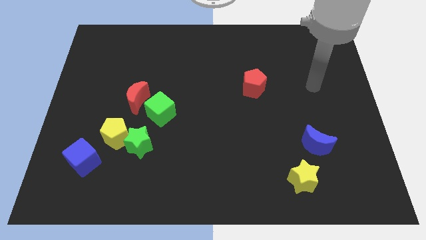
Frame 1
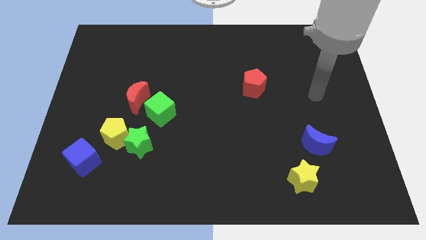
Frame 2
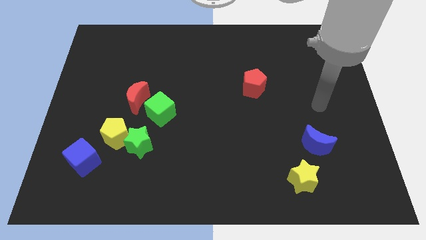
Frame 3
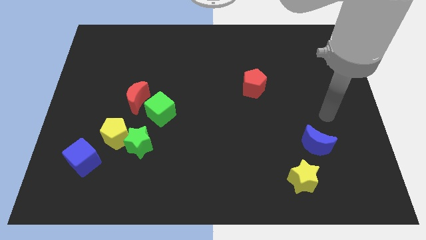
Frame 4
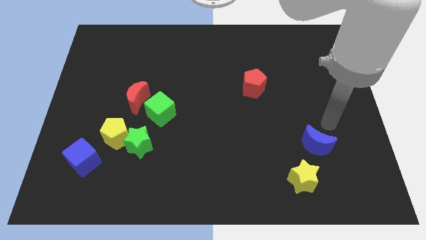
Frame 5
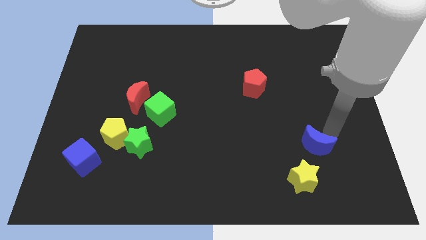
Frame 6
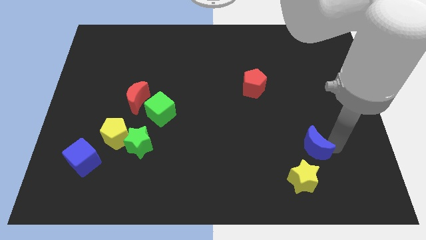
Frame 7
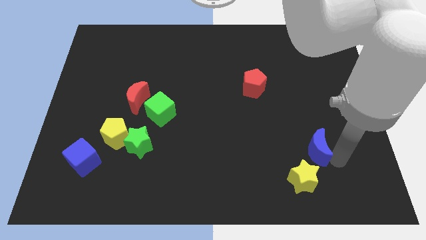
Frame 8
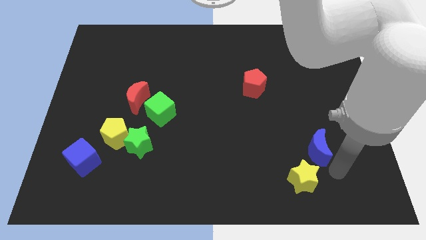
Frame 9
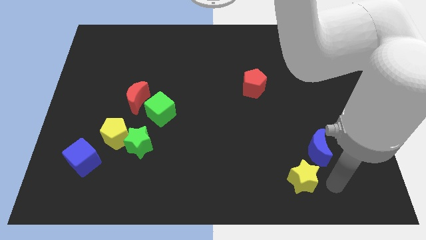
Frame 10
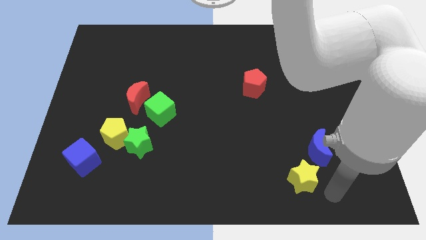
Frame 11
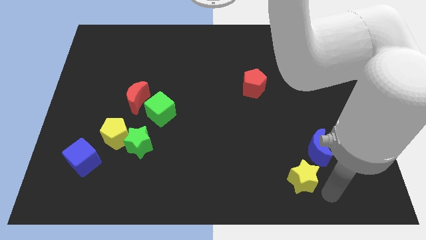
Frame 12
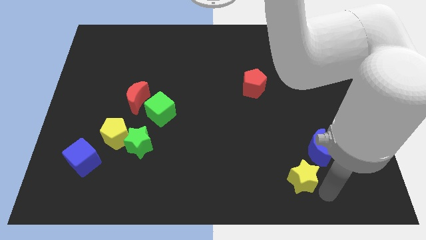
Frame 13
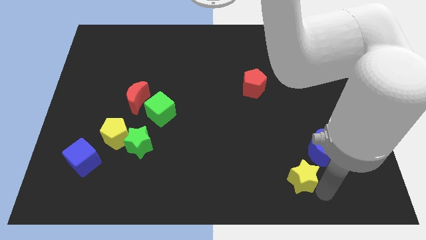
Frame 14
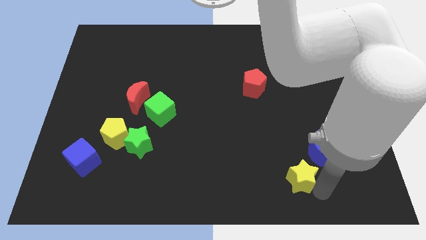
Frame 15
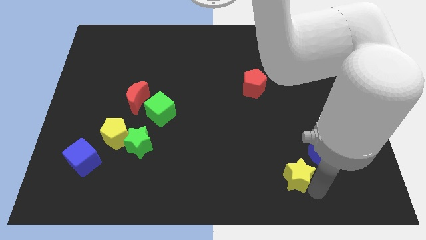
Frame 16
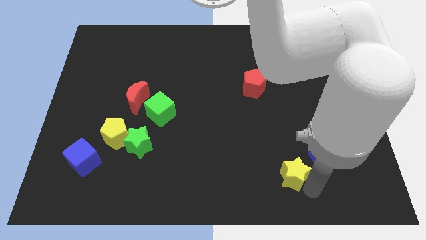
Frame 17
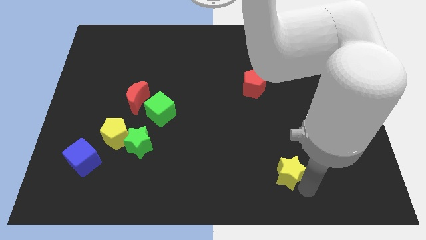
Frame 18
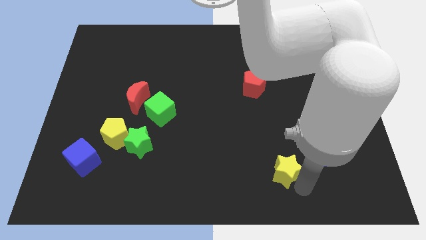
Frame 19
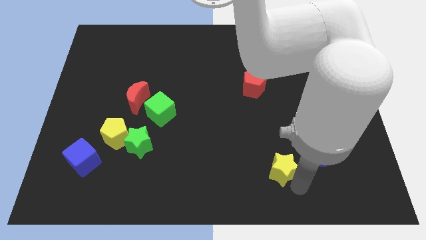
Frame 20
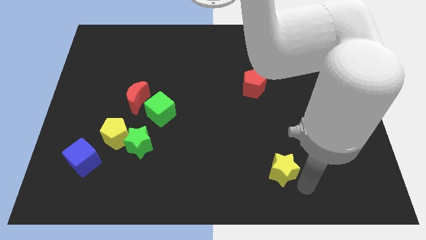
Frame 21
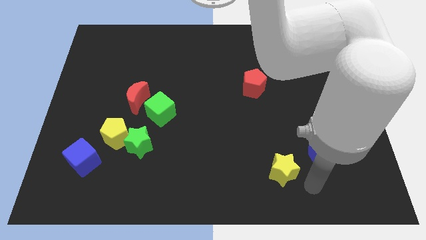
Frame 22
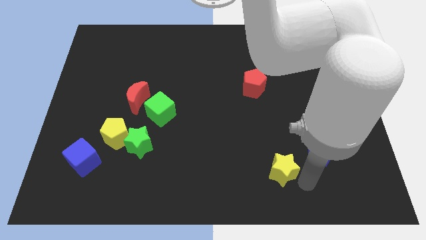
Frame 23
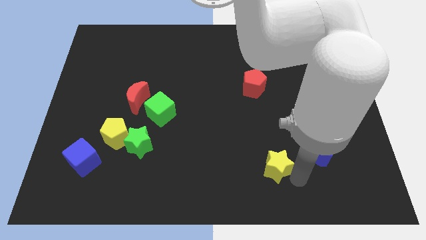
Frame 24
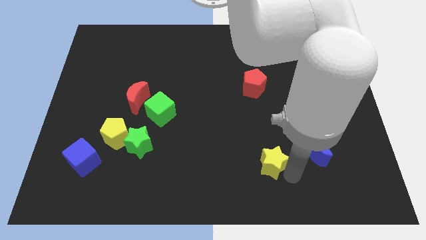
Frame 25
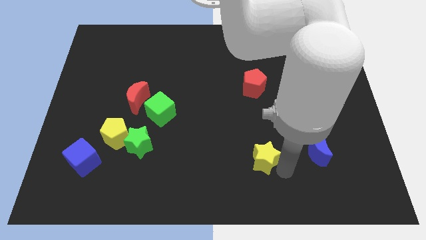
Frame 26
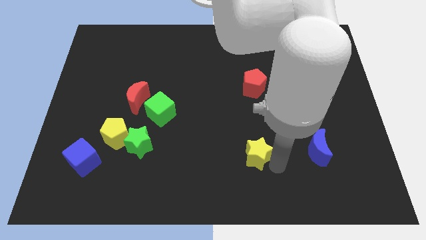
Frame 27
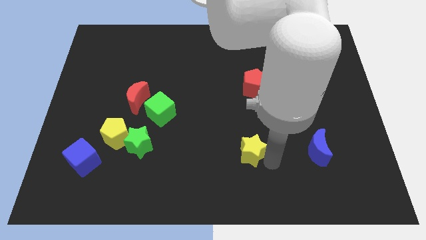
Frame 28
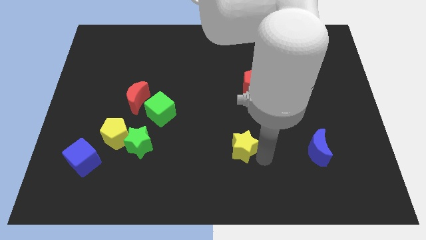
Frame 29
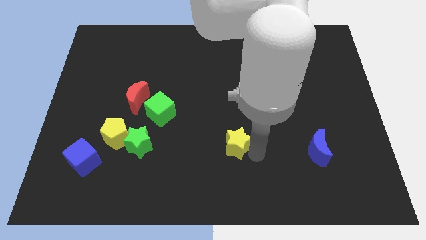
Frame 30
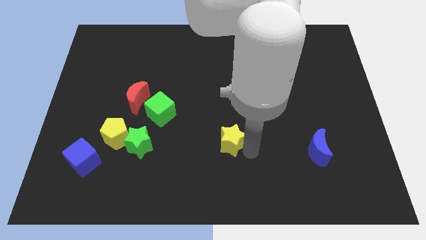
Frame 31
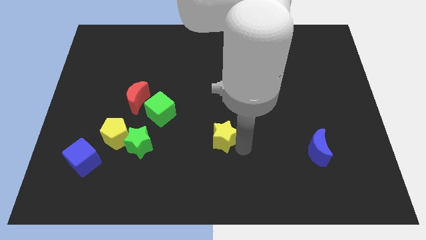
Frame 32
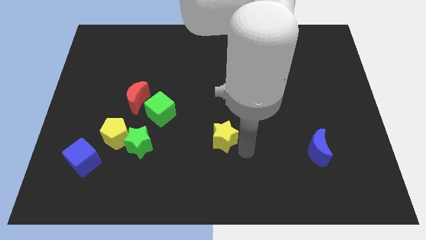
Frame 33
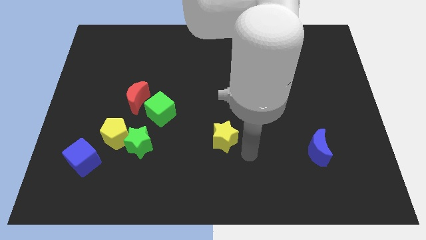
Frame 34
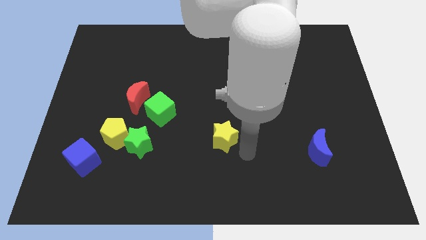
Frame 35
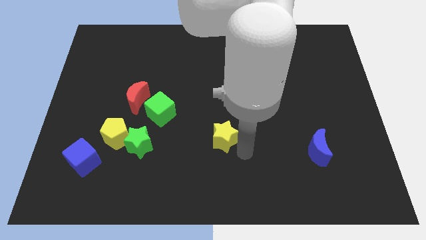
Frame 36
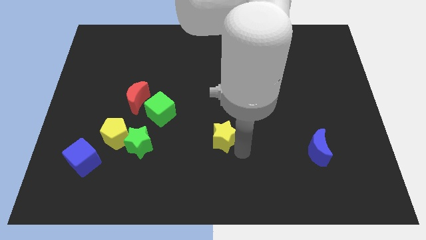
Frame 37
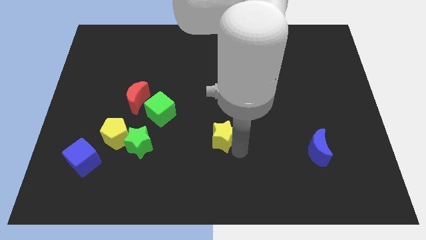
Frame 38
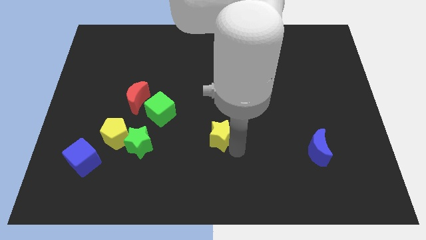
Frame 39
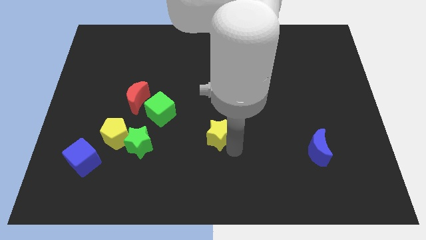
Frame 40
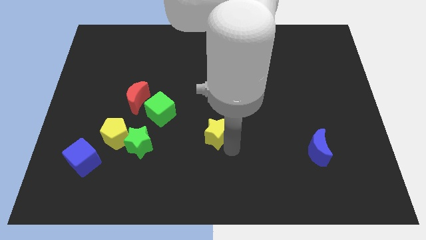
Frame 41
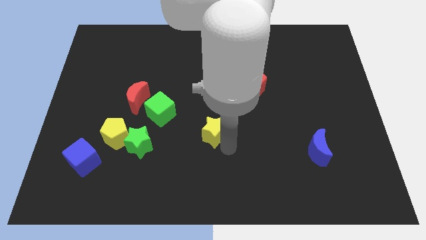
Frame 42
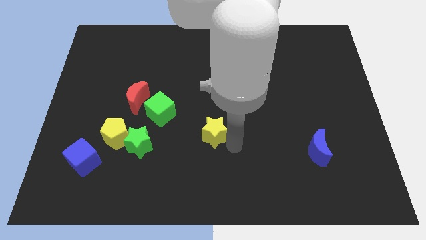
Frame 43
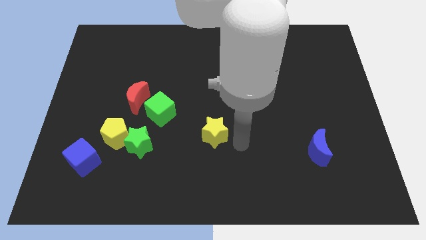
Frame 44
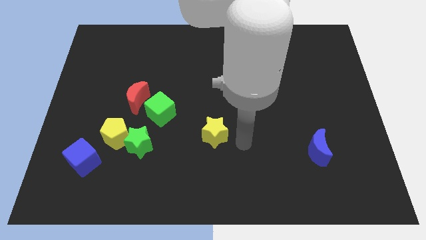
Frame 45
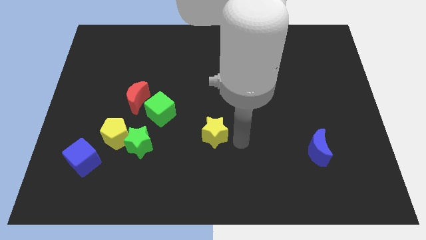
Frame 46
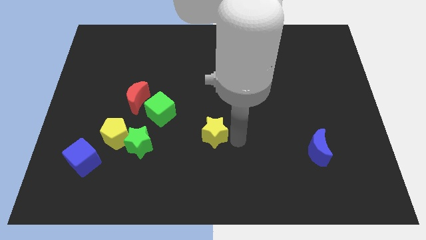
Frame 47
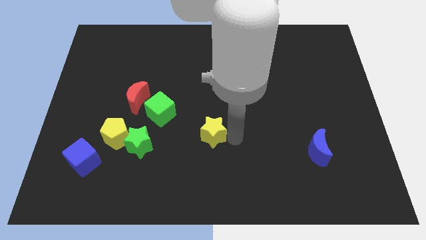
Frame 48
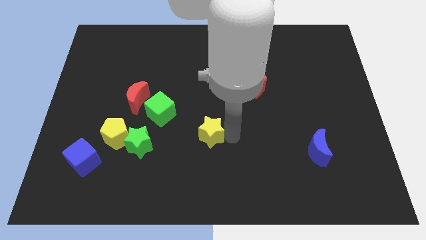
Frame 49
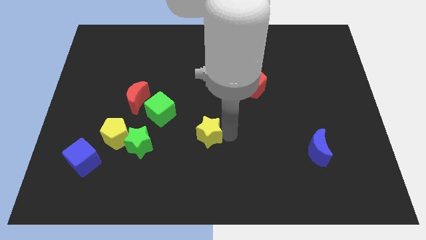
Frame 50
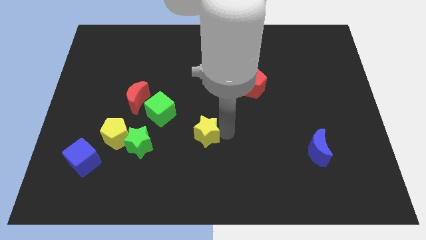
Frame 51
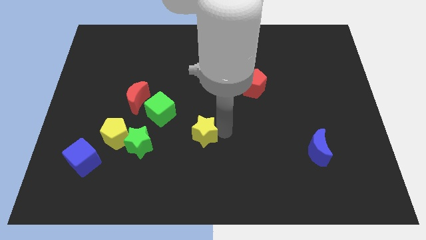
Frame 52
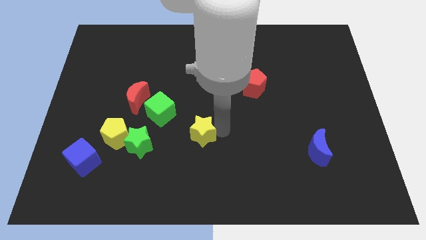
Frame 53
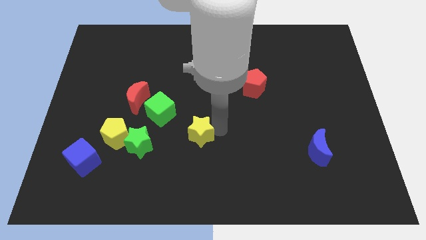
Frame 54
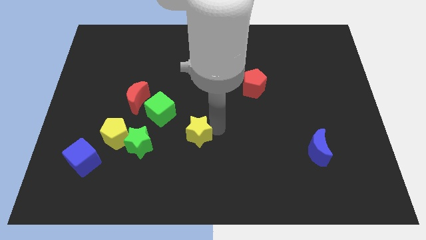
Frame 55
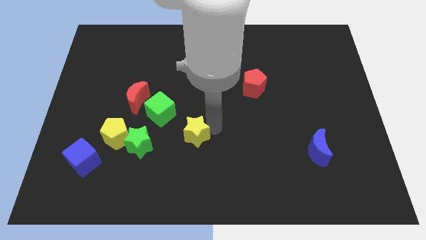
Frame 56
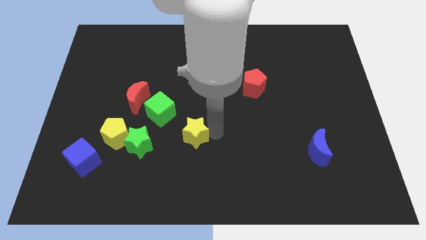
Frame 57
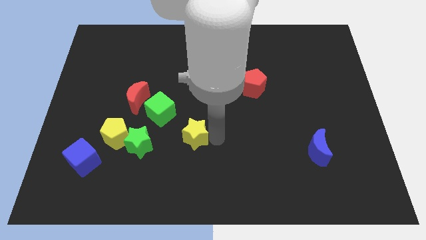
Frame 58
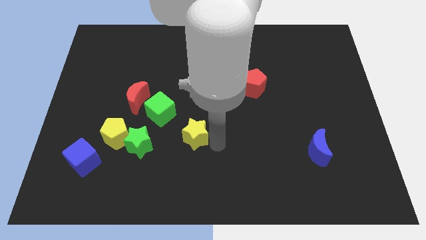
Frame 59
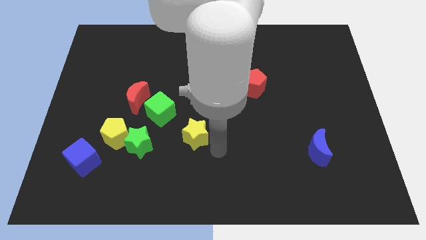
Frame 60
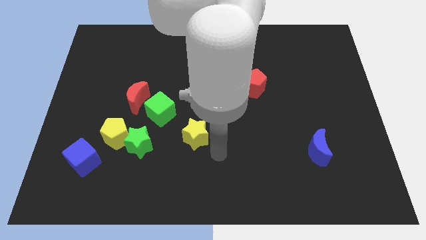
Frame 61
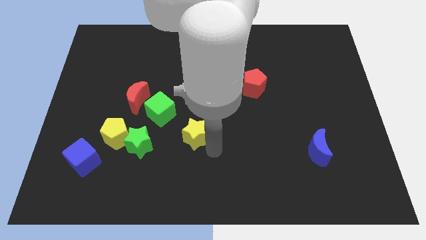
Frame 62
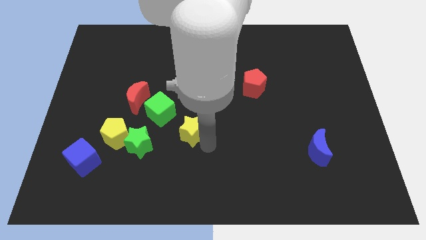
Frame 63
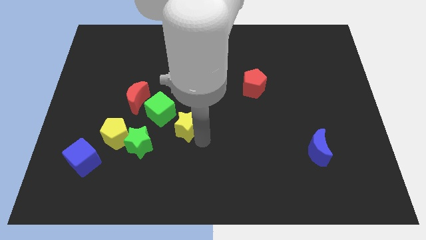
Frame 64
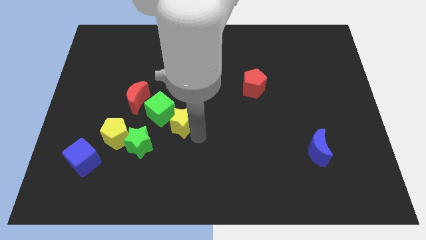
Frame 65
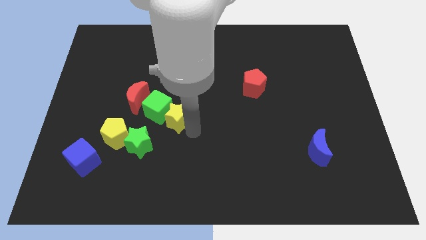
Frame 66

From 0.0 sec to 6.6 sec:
push the yellow star close to the green cube

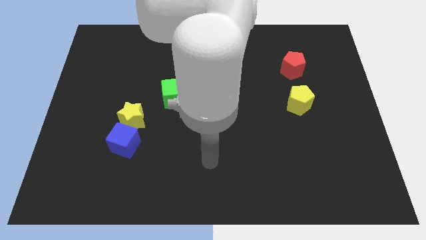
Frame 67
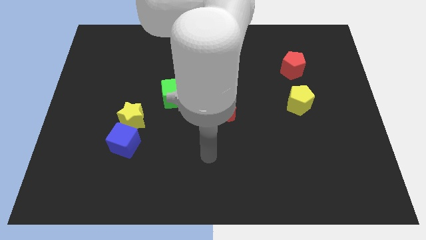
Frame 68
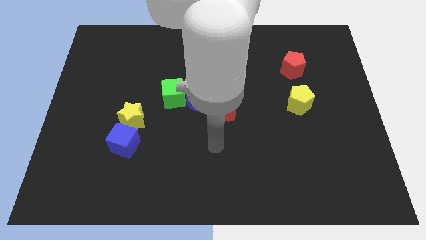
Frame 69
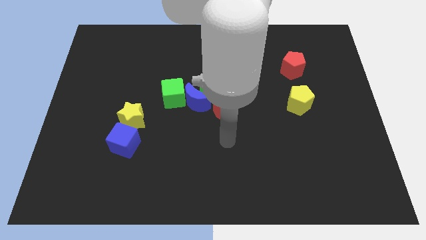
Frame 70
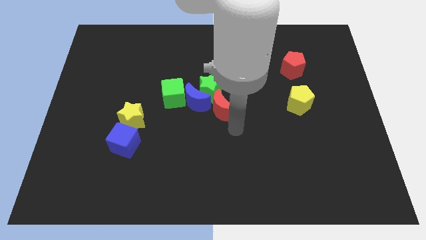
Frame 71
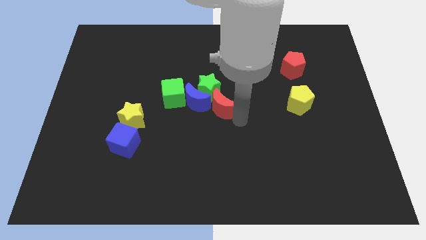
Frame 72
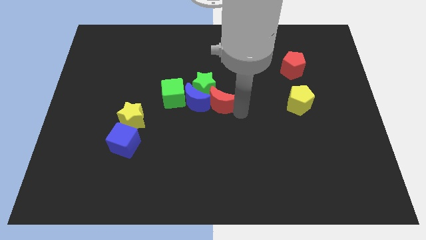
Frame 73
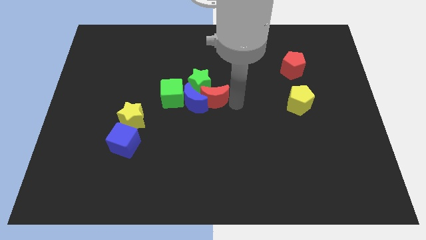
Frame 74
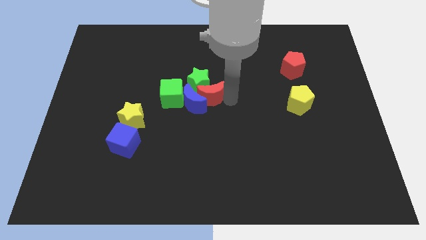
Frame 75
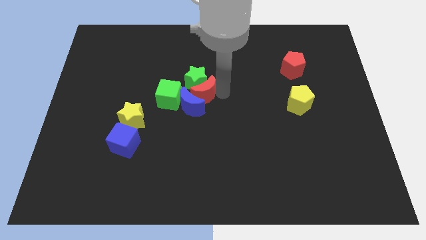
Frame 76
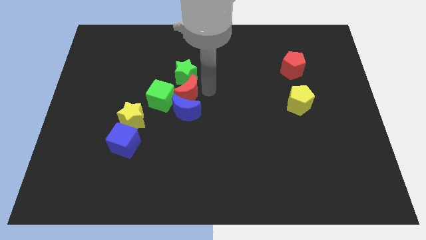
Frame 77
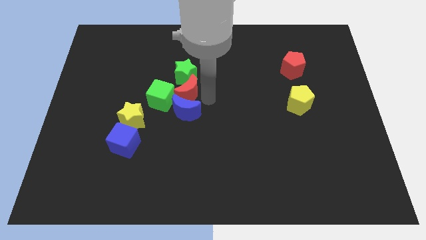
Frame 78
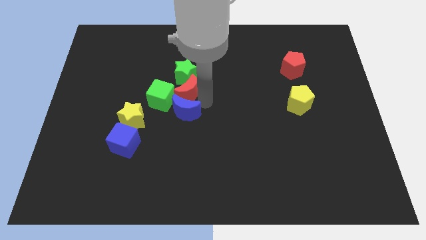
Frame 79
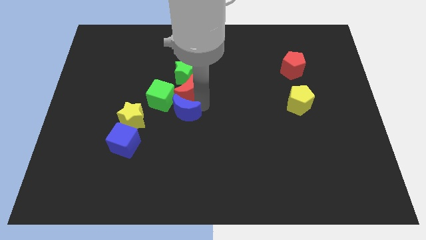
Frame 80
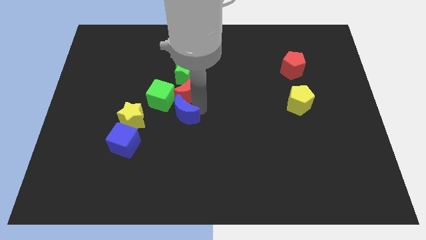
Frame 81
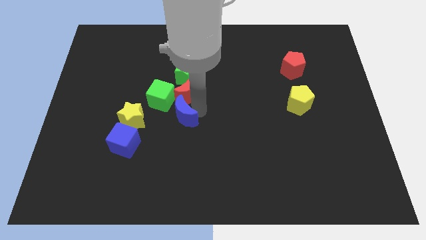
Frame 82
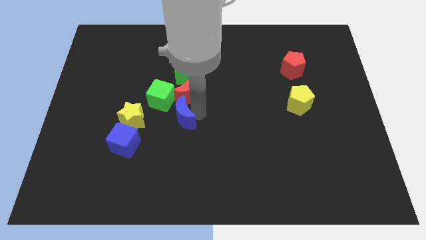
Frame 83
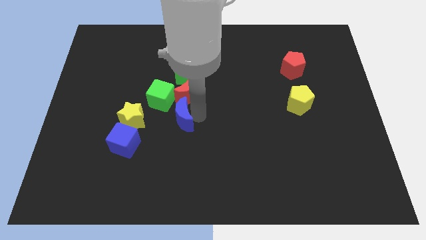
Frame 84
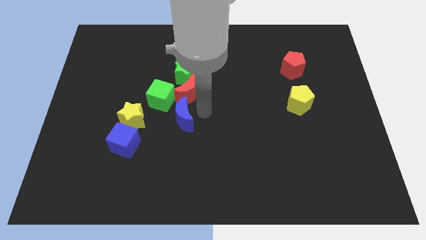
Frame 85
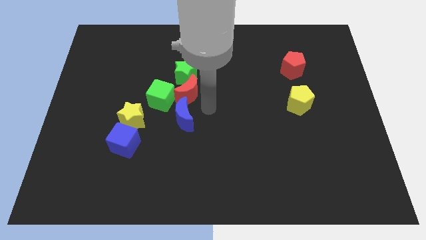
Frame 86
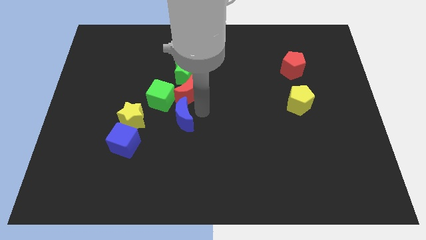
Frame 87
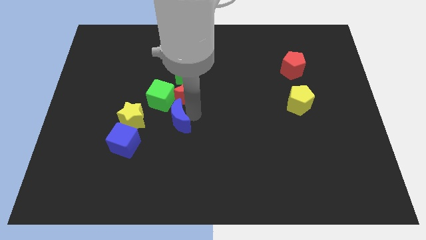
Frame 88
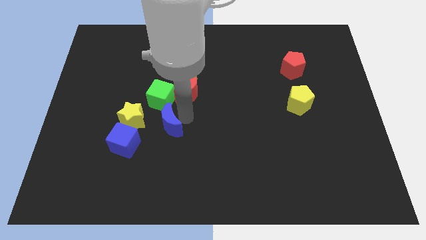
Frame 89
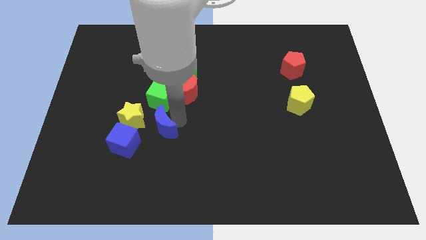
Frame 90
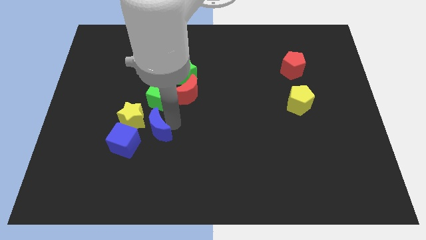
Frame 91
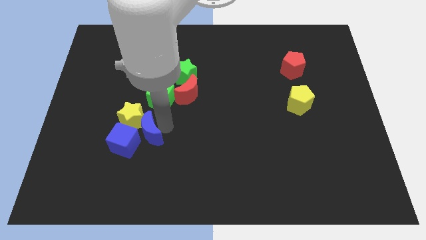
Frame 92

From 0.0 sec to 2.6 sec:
slide the blue moon towards the blue cube
